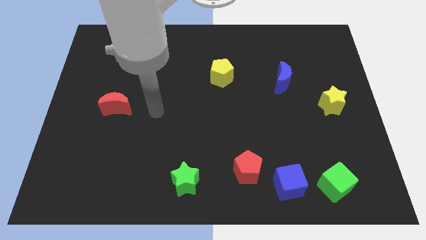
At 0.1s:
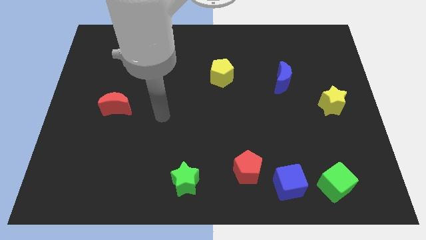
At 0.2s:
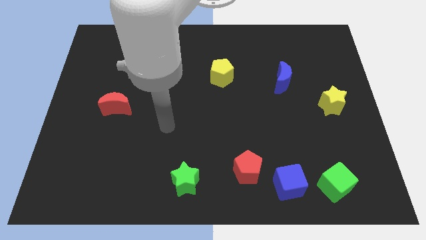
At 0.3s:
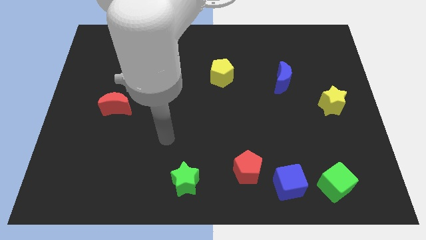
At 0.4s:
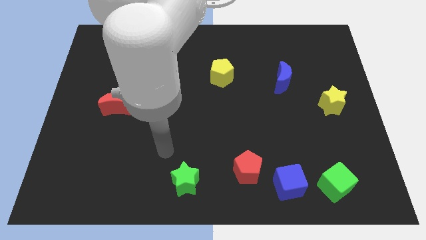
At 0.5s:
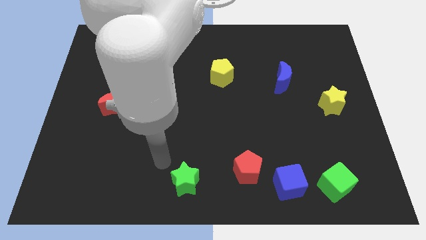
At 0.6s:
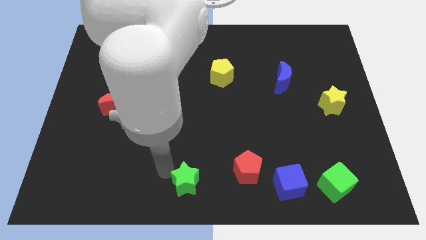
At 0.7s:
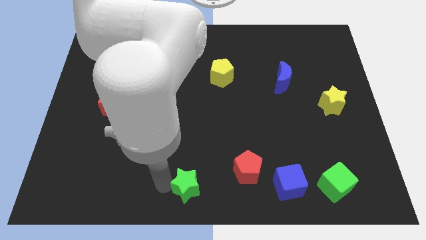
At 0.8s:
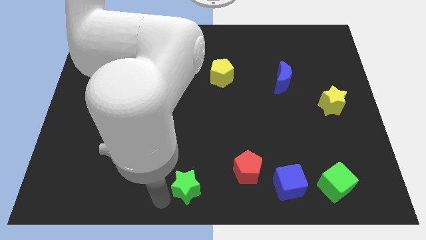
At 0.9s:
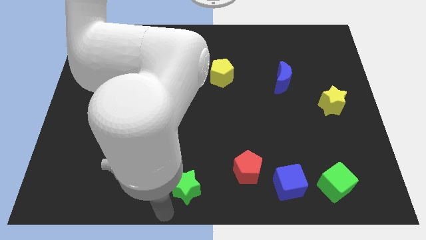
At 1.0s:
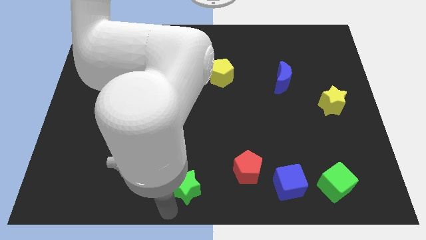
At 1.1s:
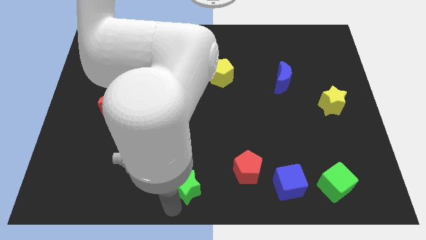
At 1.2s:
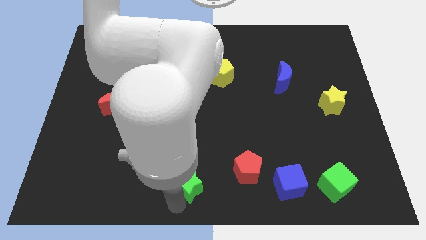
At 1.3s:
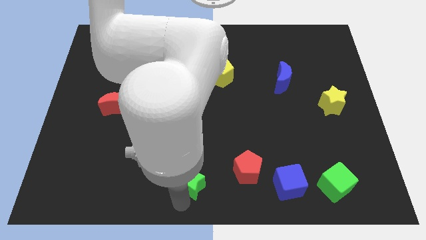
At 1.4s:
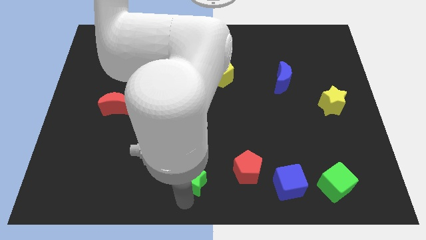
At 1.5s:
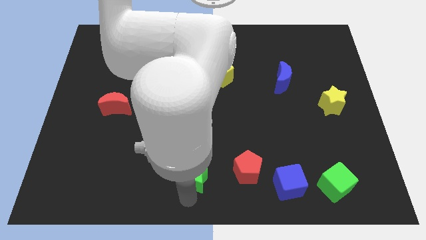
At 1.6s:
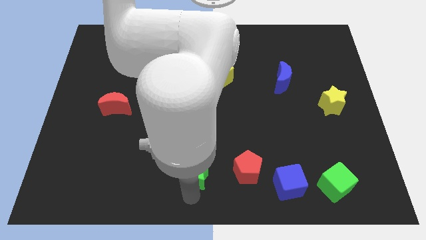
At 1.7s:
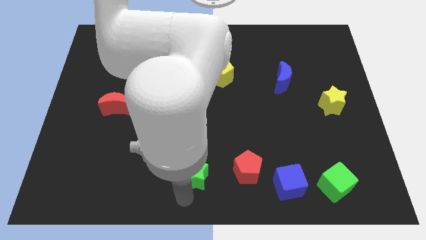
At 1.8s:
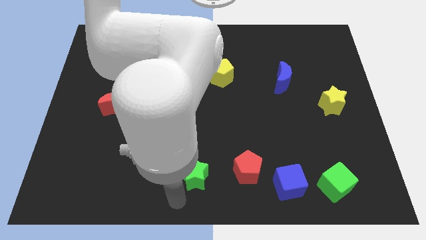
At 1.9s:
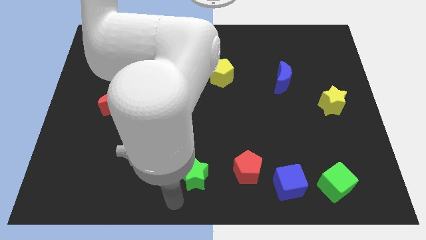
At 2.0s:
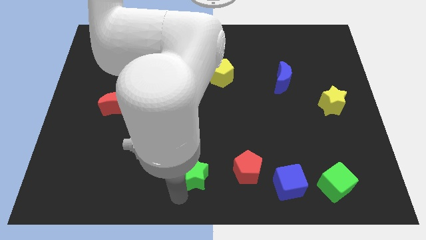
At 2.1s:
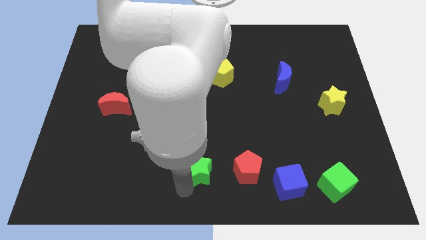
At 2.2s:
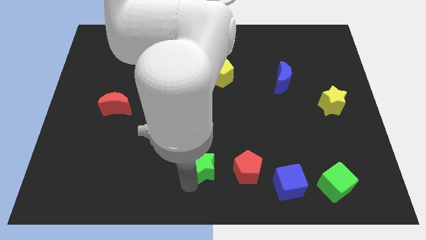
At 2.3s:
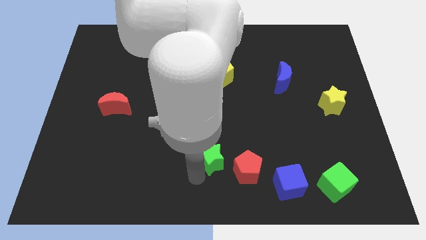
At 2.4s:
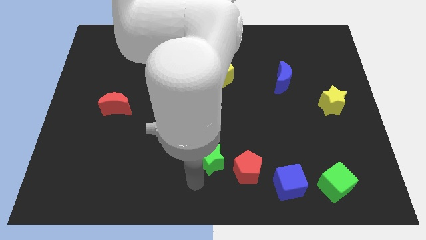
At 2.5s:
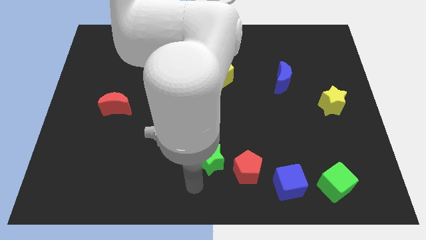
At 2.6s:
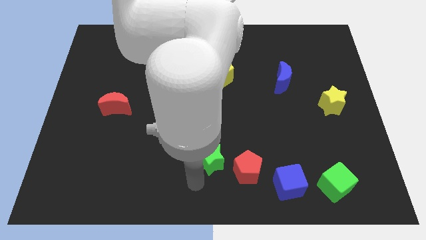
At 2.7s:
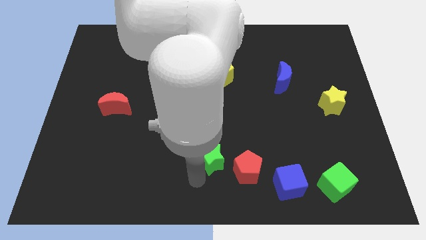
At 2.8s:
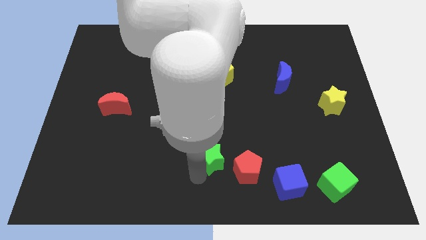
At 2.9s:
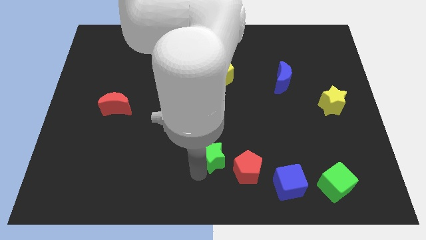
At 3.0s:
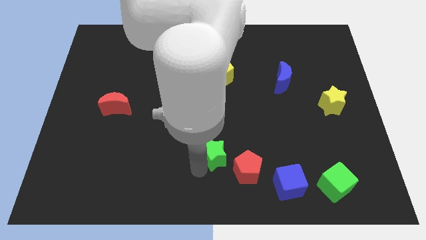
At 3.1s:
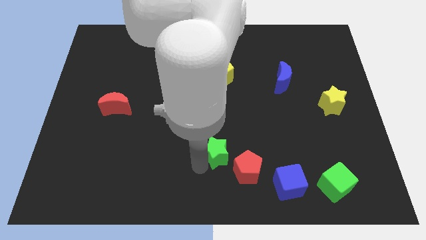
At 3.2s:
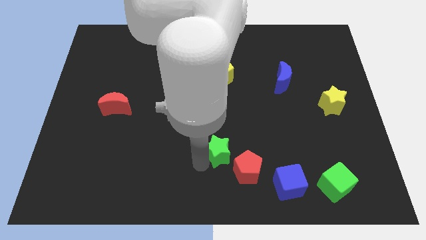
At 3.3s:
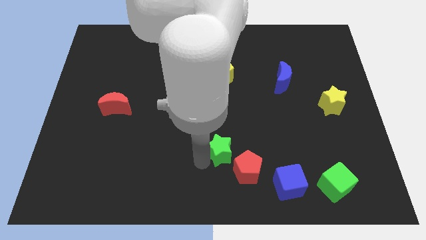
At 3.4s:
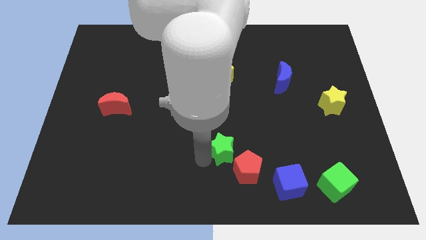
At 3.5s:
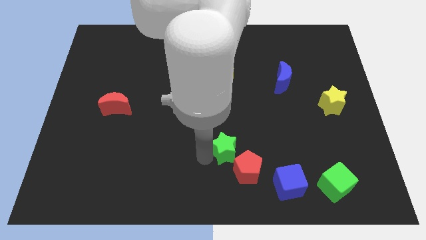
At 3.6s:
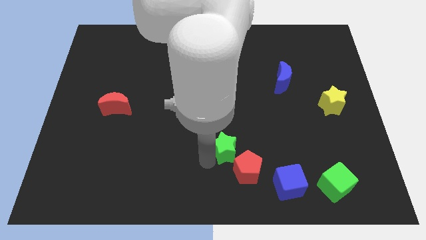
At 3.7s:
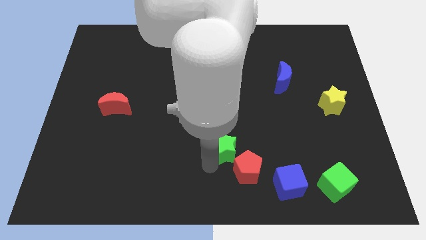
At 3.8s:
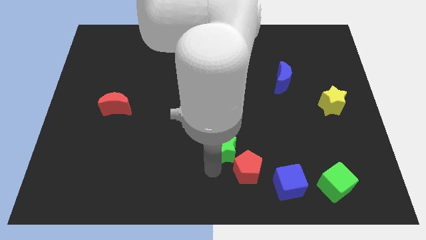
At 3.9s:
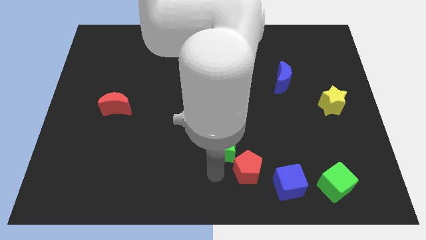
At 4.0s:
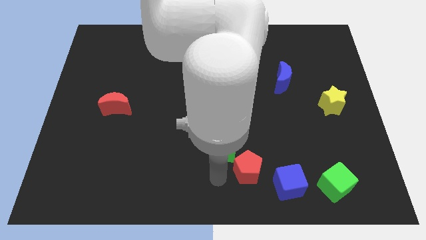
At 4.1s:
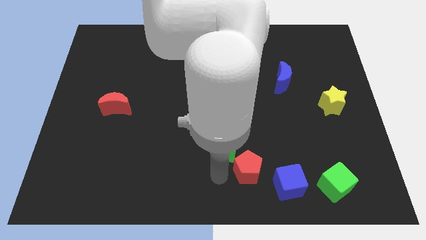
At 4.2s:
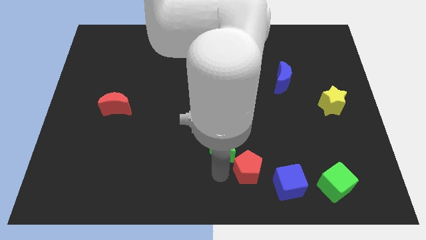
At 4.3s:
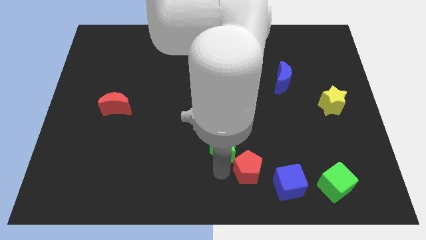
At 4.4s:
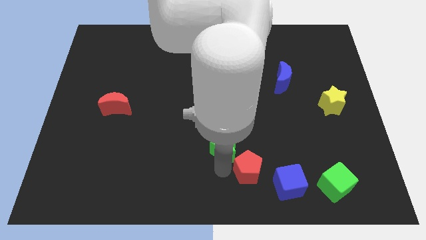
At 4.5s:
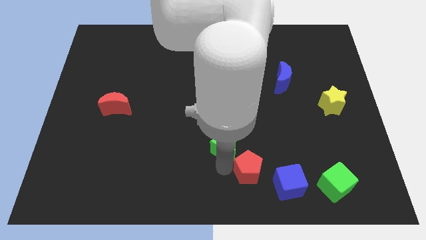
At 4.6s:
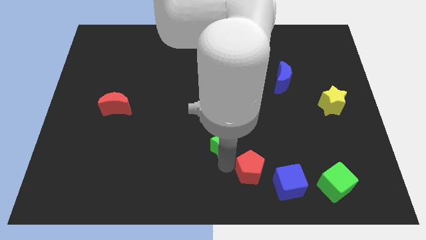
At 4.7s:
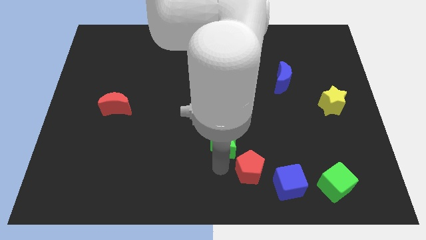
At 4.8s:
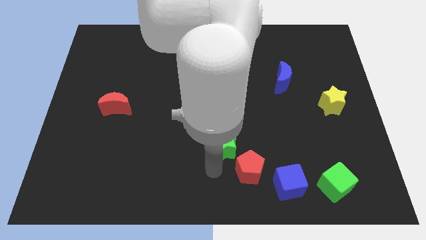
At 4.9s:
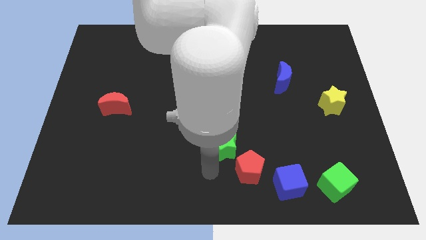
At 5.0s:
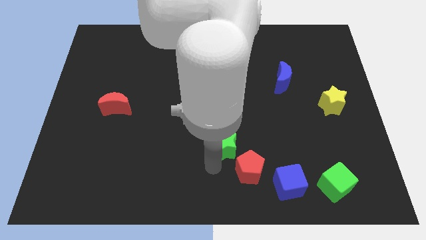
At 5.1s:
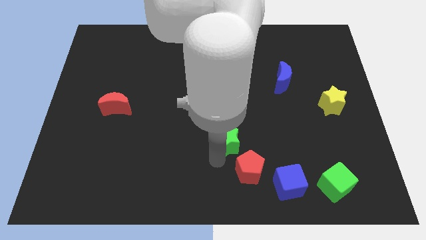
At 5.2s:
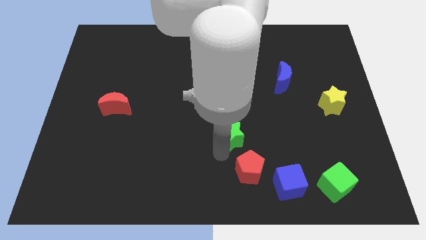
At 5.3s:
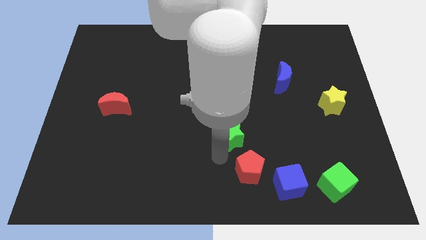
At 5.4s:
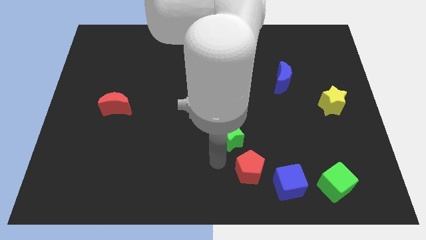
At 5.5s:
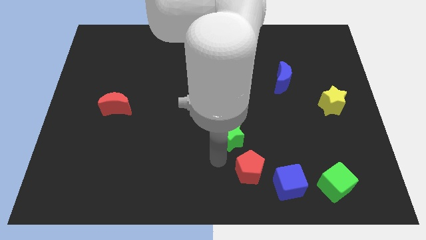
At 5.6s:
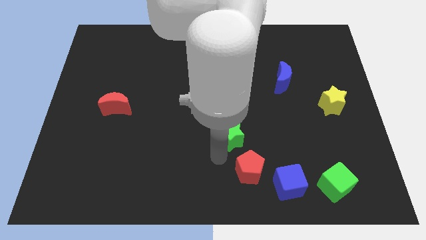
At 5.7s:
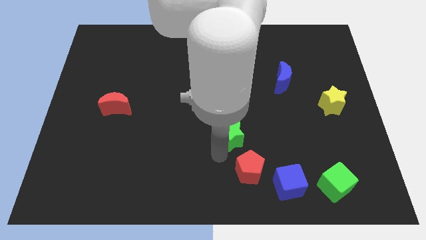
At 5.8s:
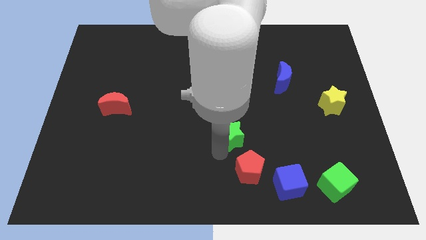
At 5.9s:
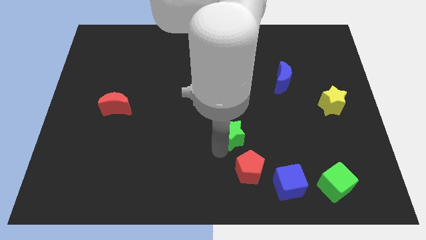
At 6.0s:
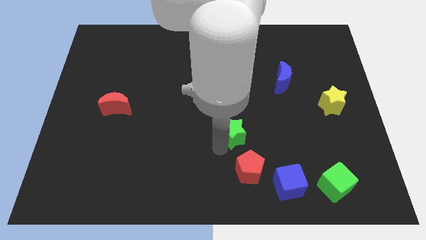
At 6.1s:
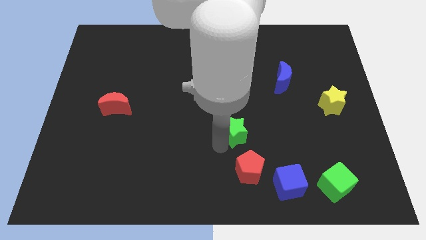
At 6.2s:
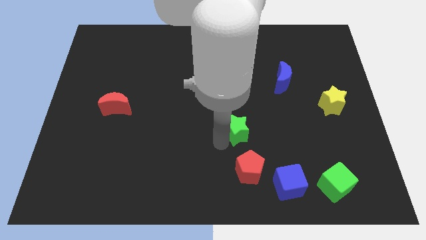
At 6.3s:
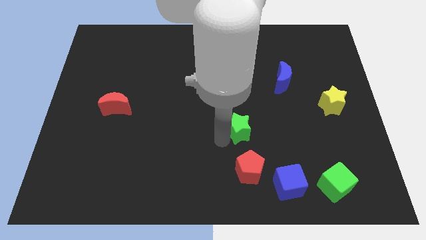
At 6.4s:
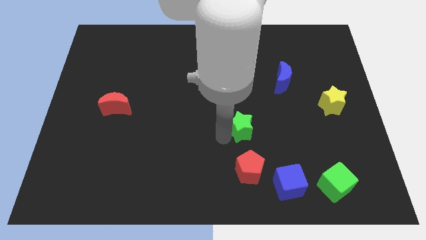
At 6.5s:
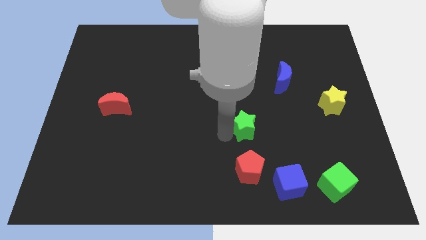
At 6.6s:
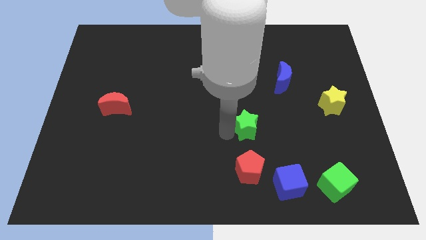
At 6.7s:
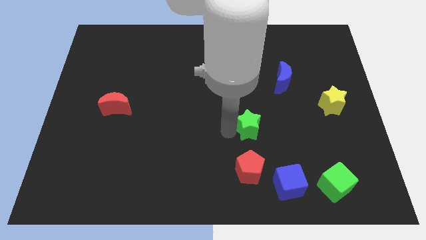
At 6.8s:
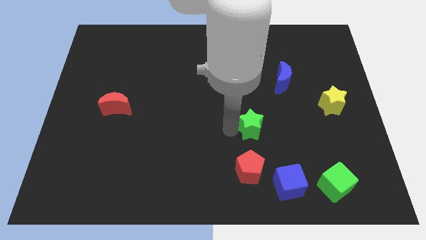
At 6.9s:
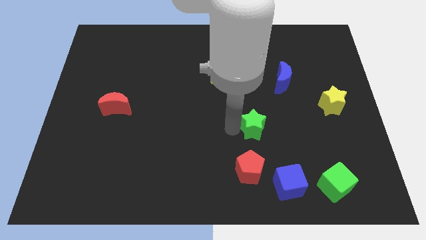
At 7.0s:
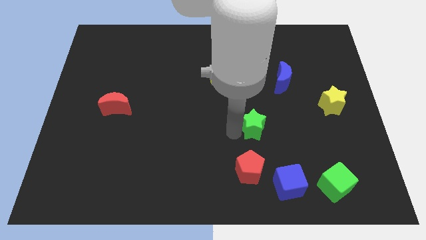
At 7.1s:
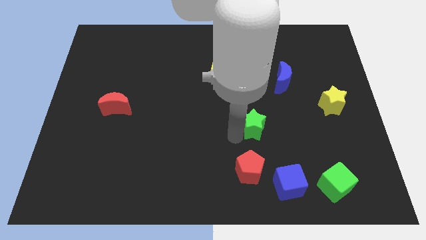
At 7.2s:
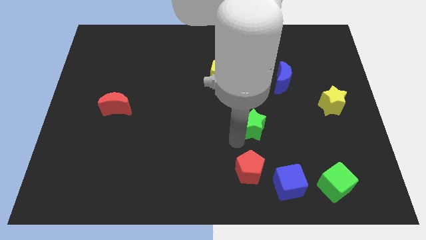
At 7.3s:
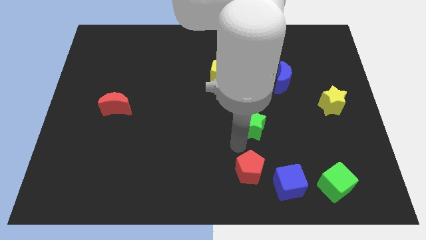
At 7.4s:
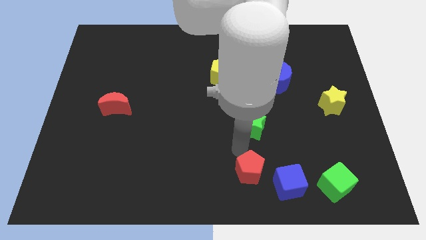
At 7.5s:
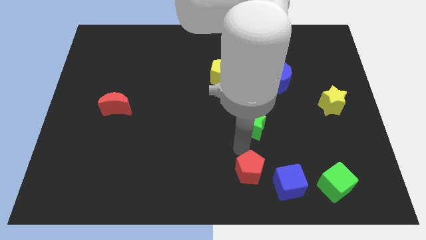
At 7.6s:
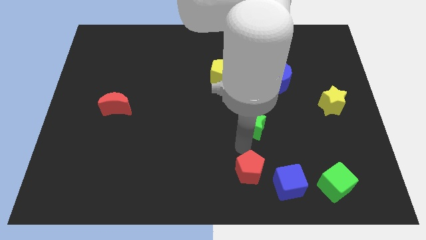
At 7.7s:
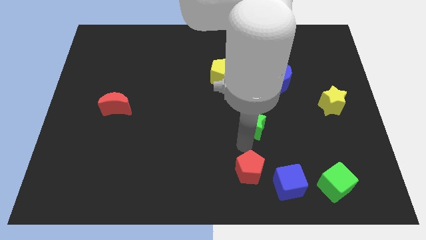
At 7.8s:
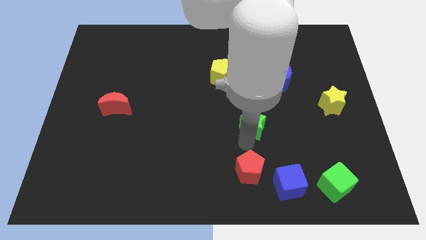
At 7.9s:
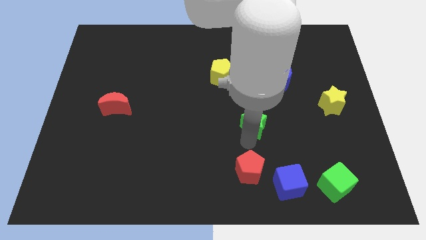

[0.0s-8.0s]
push the green star diagonally up and to the right
